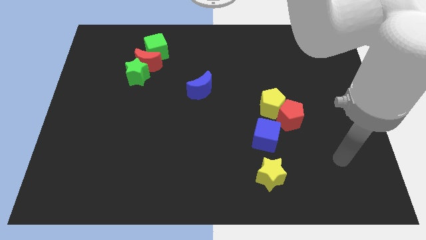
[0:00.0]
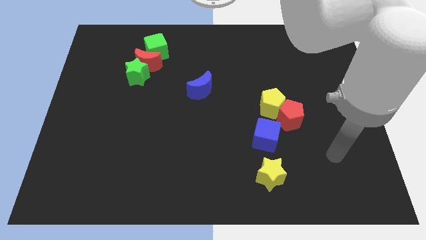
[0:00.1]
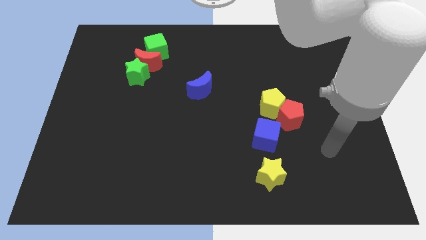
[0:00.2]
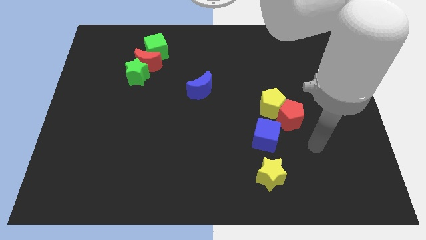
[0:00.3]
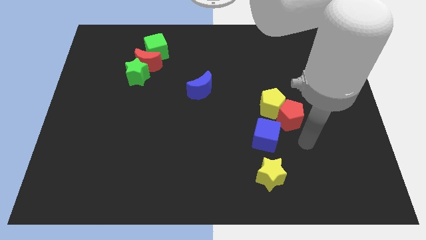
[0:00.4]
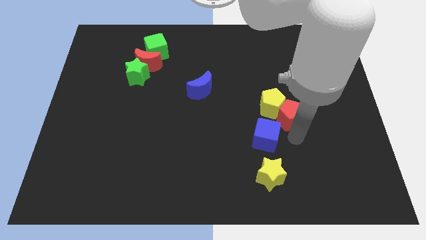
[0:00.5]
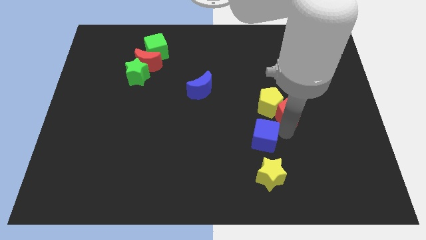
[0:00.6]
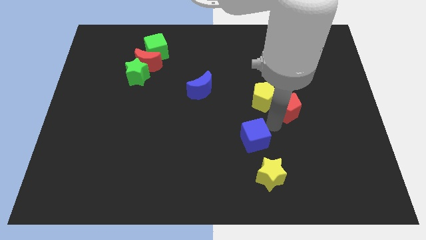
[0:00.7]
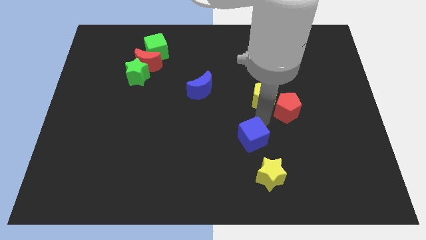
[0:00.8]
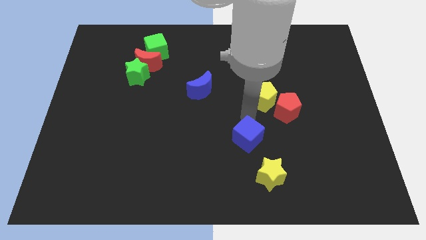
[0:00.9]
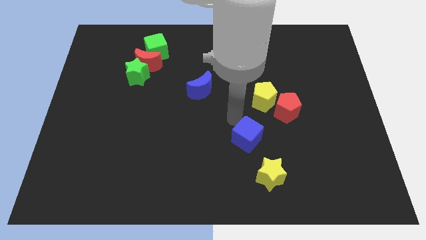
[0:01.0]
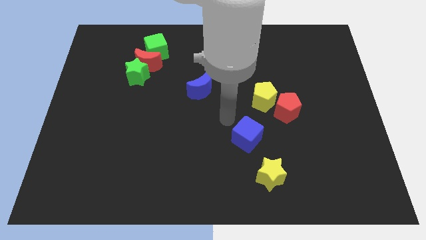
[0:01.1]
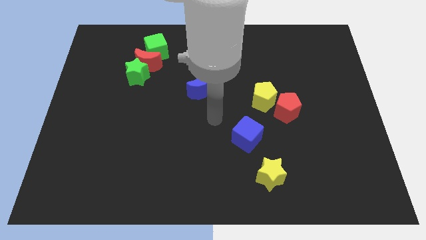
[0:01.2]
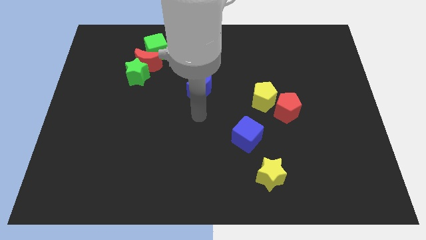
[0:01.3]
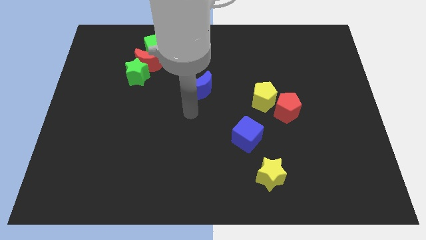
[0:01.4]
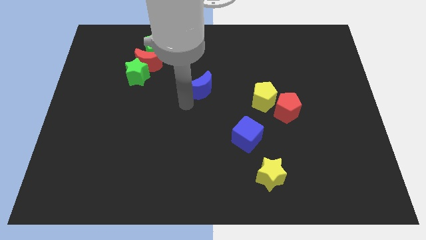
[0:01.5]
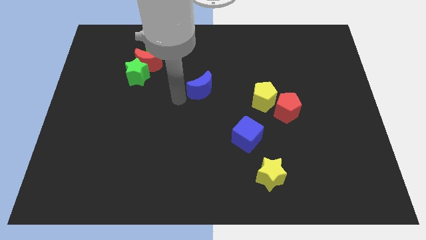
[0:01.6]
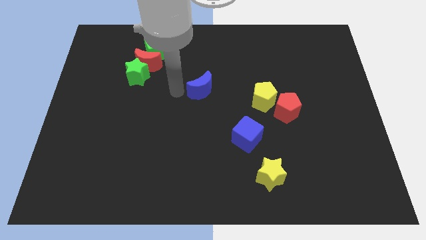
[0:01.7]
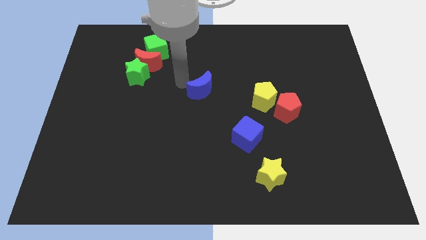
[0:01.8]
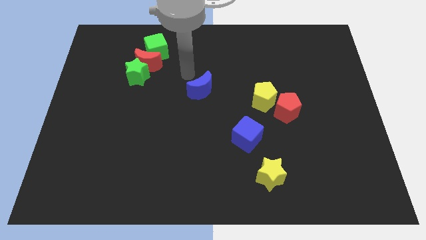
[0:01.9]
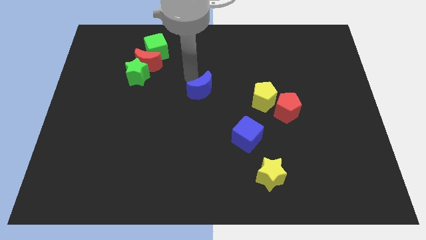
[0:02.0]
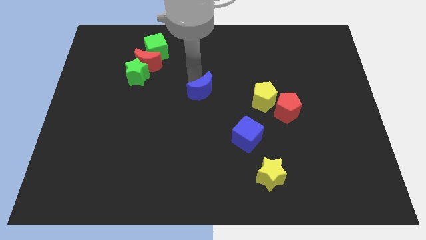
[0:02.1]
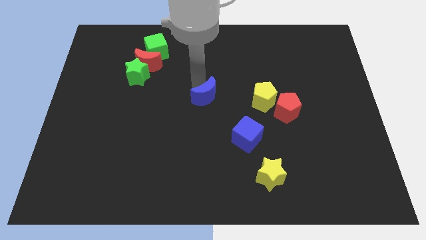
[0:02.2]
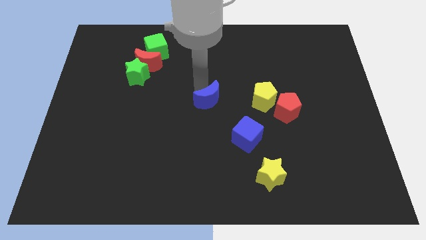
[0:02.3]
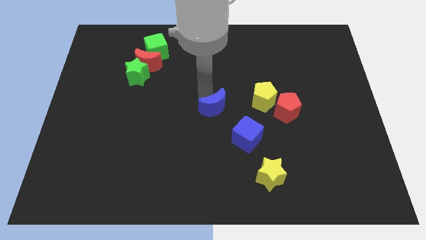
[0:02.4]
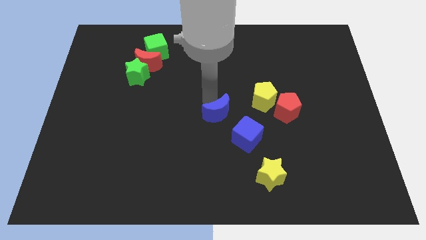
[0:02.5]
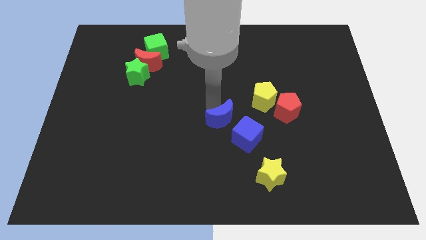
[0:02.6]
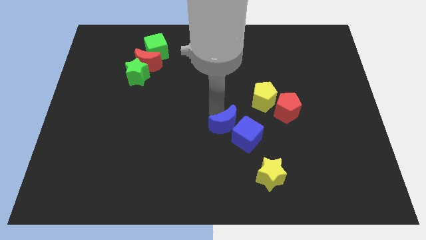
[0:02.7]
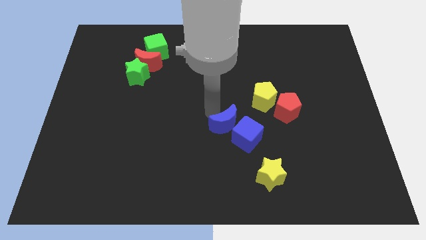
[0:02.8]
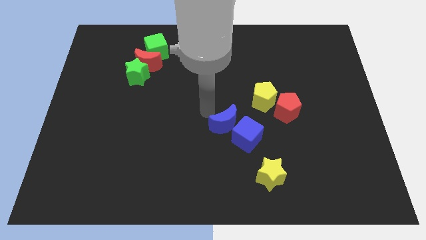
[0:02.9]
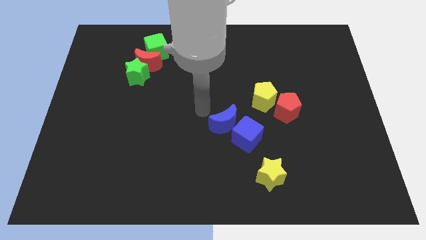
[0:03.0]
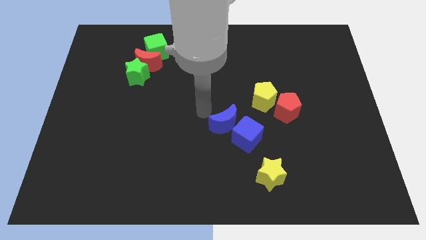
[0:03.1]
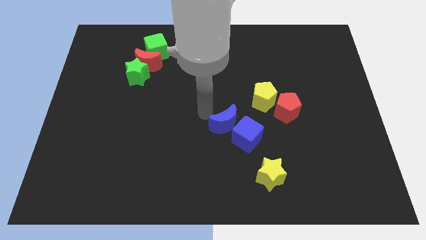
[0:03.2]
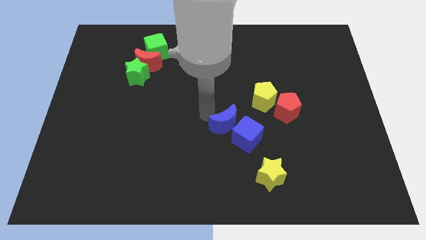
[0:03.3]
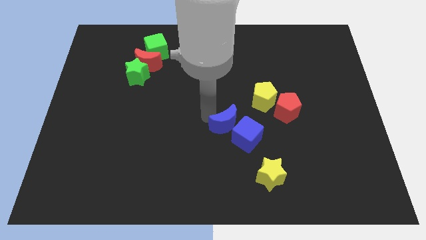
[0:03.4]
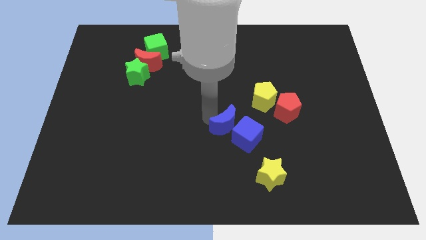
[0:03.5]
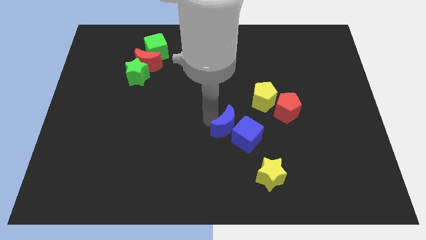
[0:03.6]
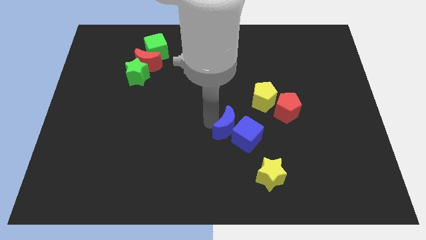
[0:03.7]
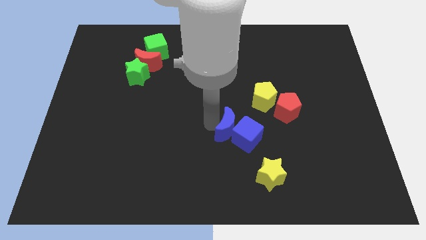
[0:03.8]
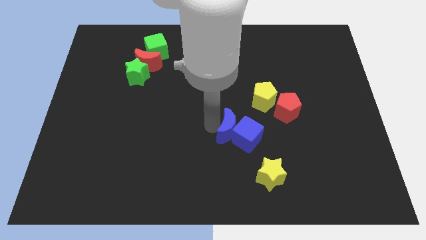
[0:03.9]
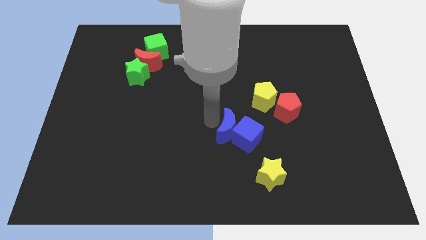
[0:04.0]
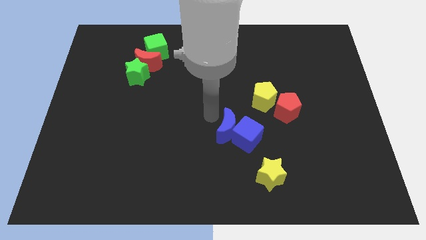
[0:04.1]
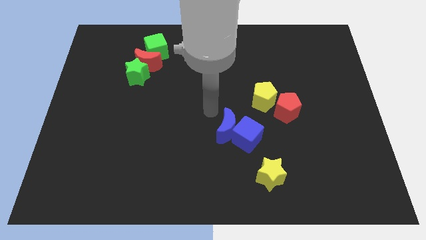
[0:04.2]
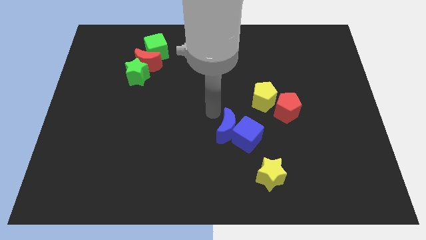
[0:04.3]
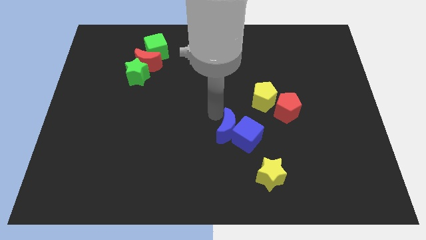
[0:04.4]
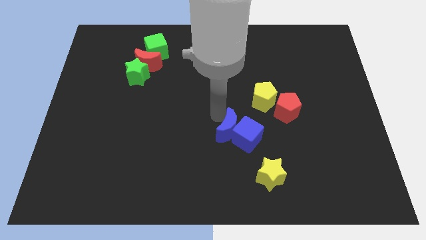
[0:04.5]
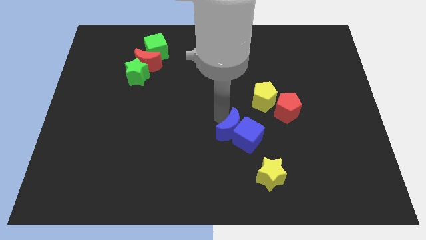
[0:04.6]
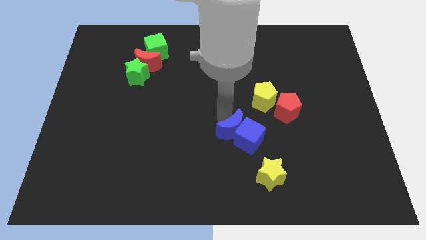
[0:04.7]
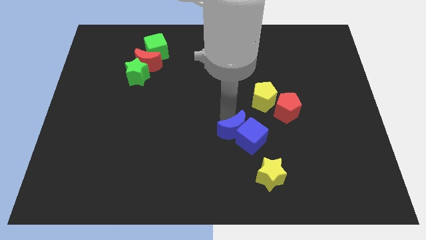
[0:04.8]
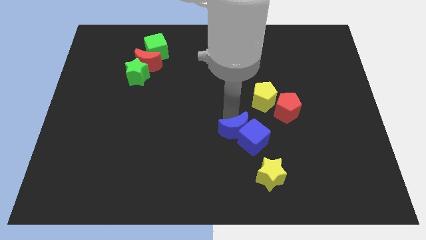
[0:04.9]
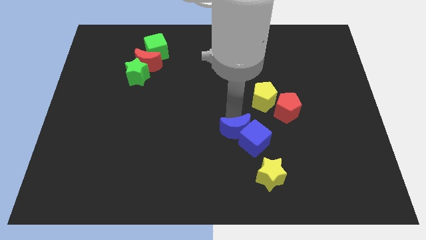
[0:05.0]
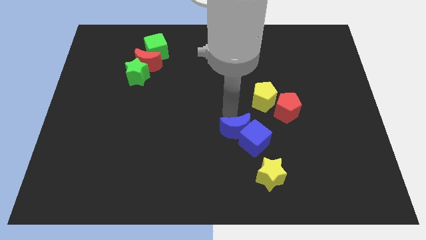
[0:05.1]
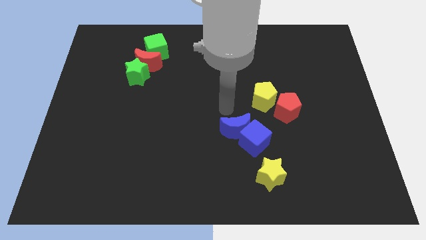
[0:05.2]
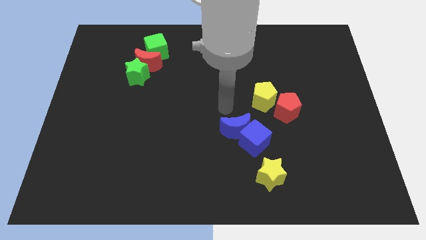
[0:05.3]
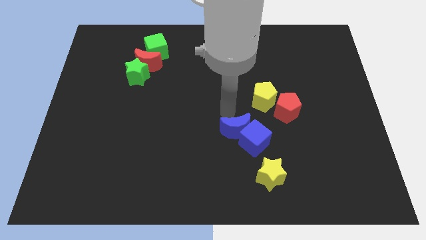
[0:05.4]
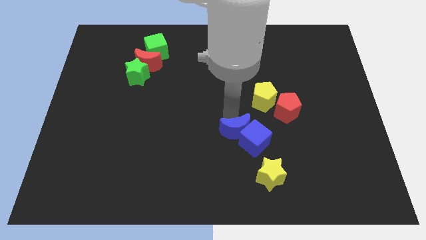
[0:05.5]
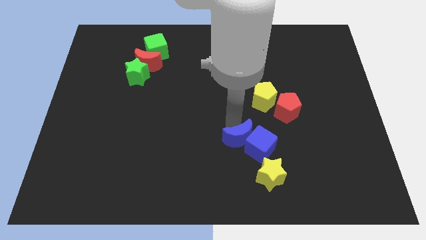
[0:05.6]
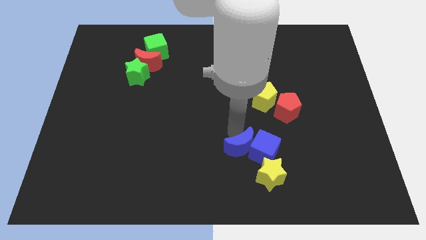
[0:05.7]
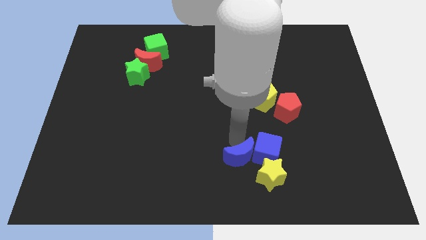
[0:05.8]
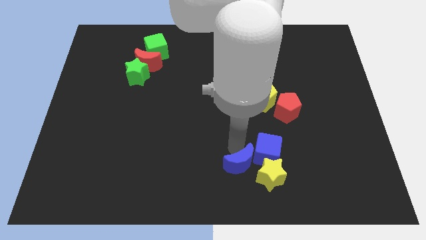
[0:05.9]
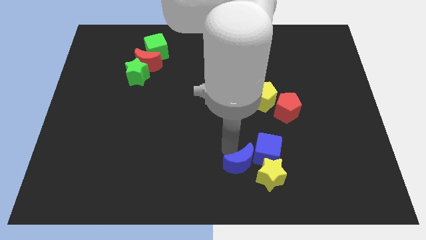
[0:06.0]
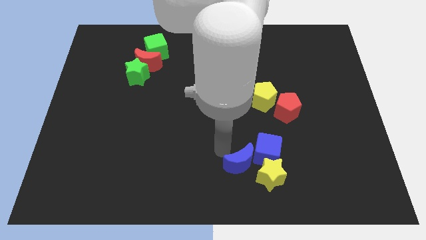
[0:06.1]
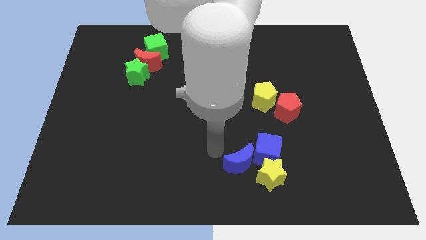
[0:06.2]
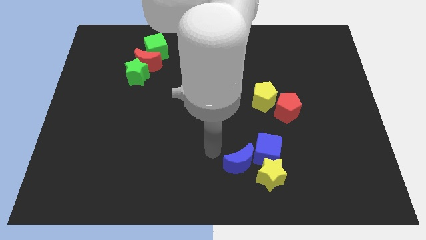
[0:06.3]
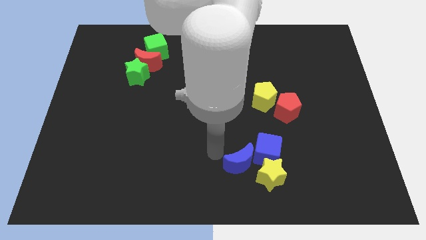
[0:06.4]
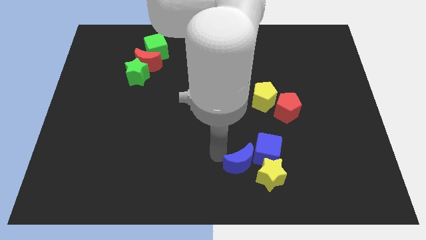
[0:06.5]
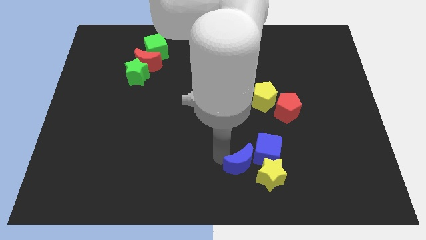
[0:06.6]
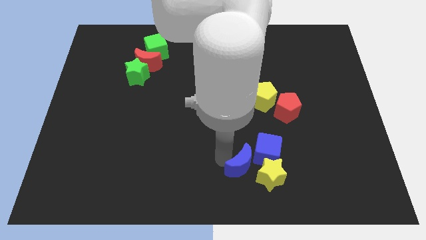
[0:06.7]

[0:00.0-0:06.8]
put the blue moon towards the yellow star

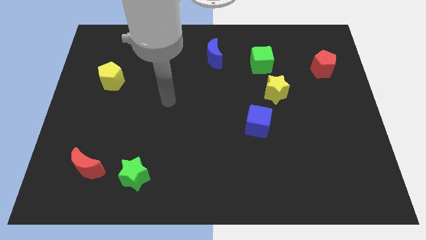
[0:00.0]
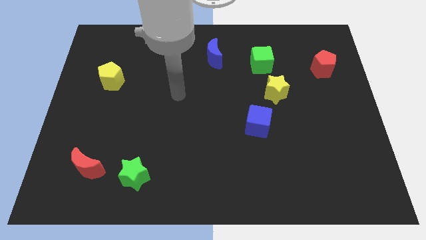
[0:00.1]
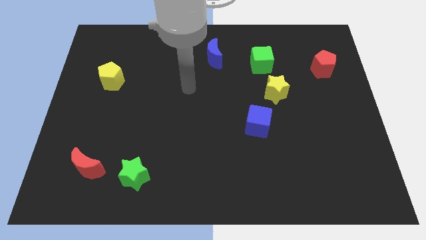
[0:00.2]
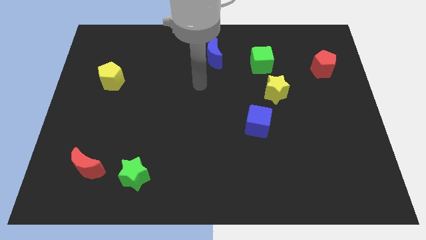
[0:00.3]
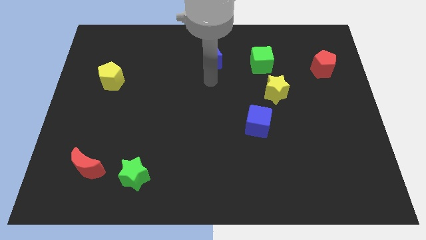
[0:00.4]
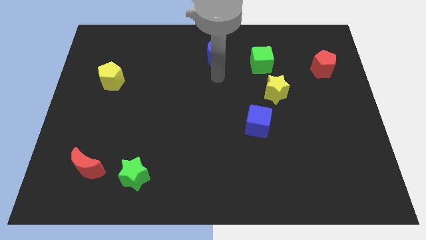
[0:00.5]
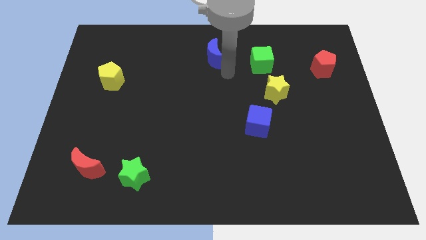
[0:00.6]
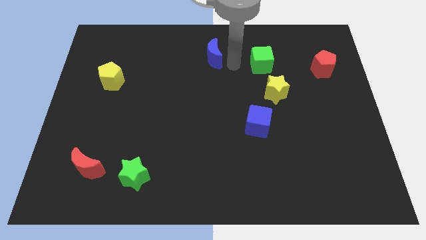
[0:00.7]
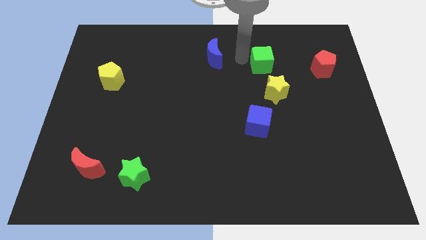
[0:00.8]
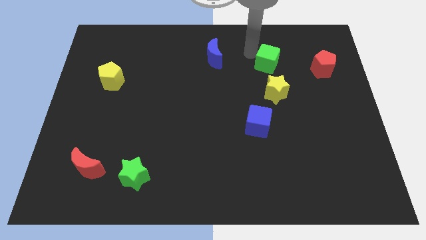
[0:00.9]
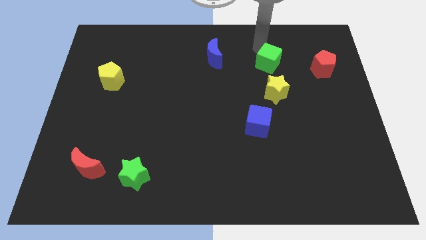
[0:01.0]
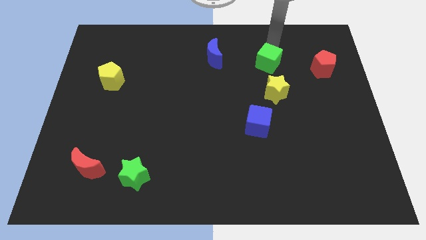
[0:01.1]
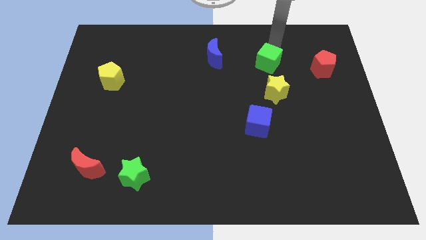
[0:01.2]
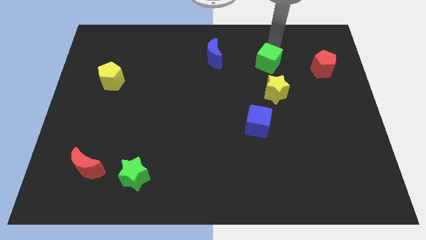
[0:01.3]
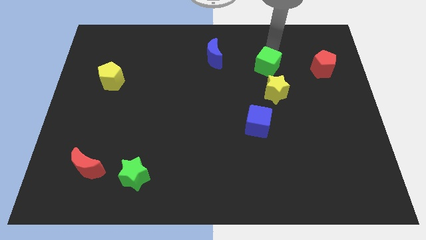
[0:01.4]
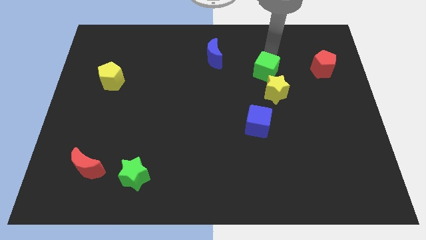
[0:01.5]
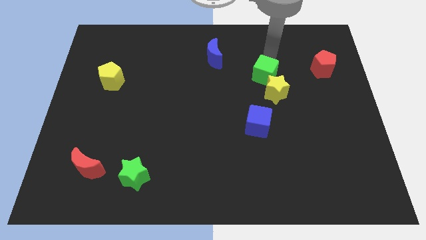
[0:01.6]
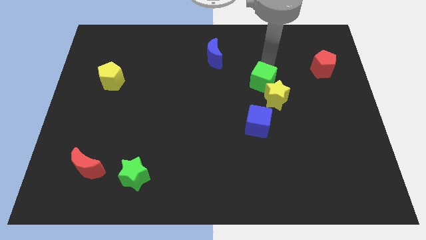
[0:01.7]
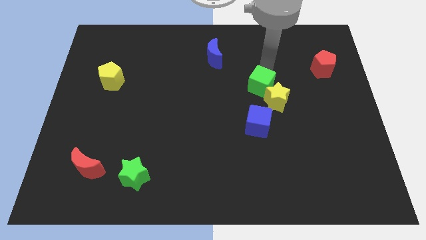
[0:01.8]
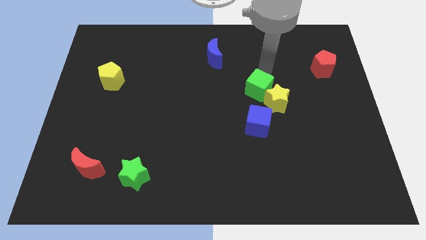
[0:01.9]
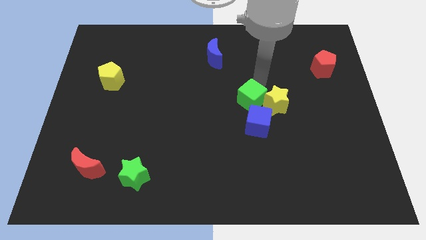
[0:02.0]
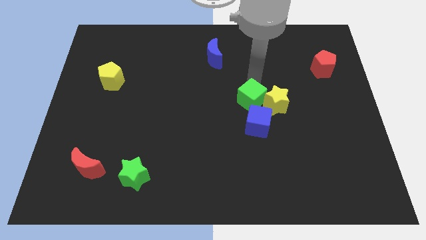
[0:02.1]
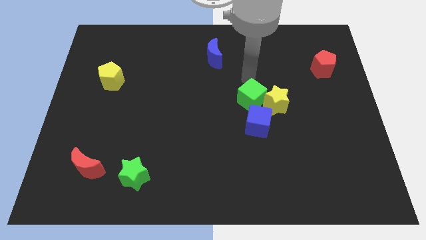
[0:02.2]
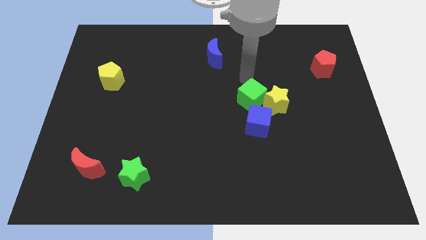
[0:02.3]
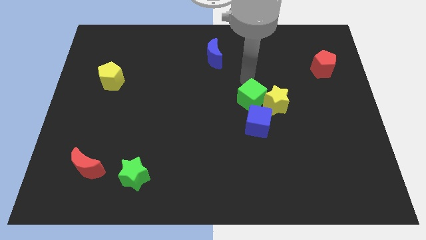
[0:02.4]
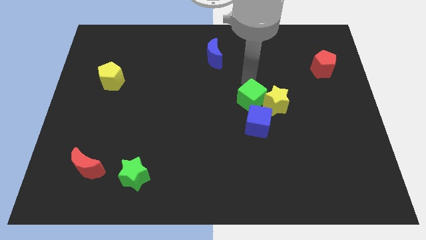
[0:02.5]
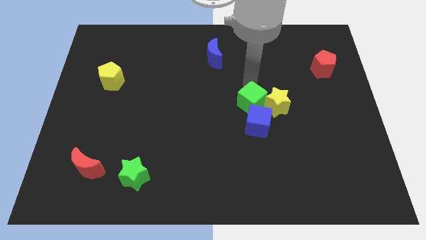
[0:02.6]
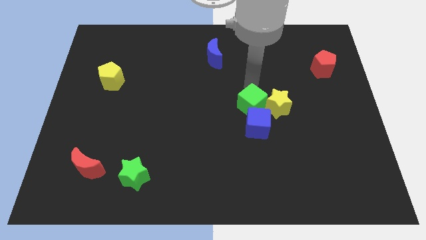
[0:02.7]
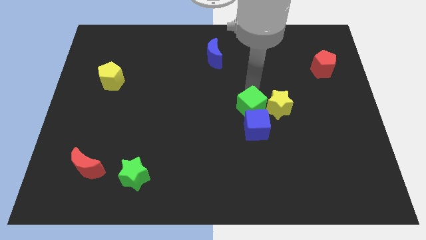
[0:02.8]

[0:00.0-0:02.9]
move the green cube to the blue cube
